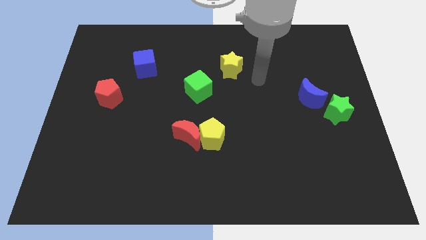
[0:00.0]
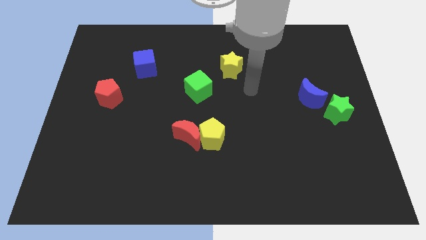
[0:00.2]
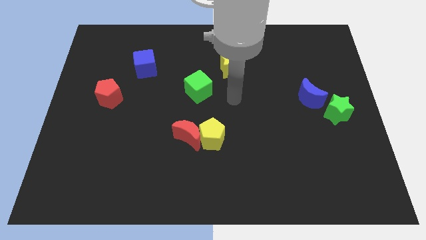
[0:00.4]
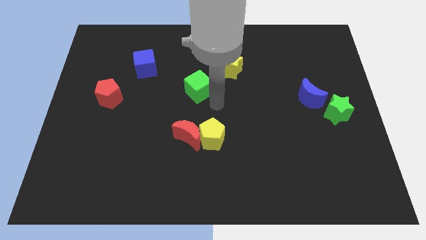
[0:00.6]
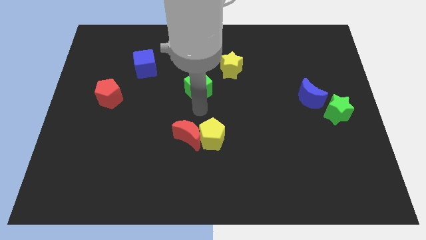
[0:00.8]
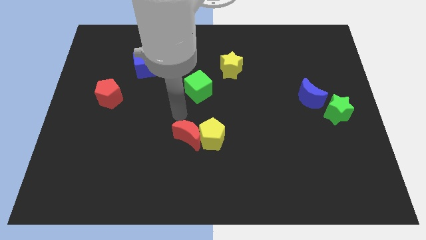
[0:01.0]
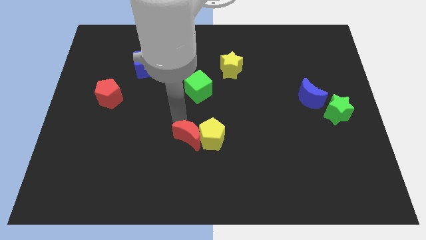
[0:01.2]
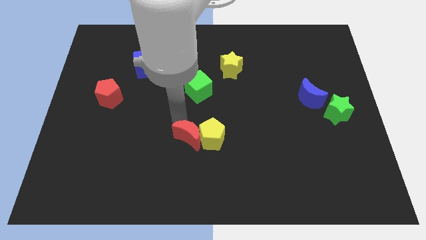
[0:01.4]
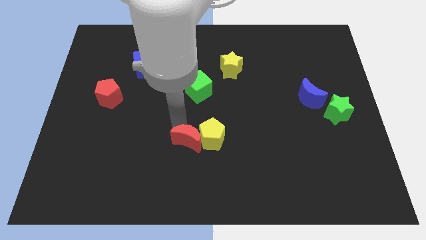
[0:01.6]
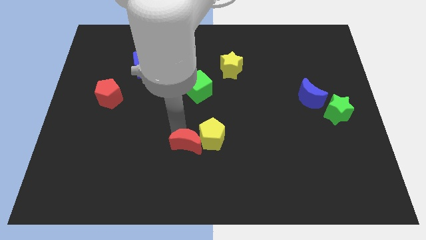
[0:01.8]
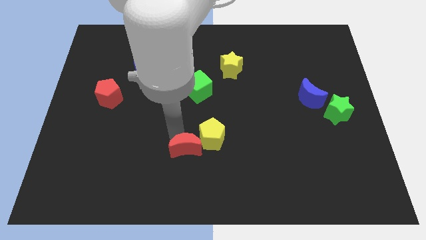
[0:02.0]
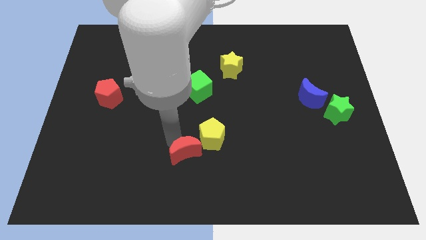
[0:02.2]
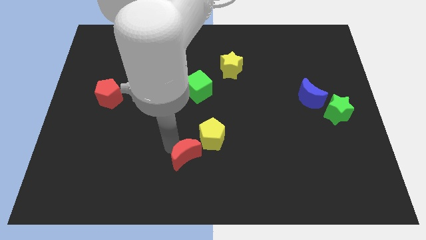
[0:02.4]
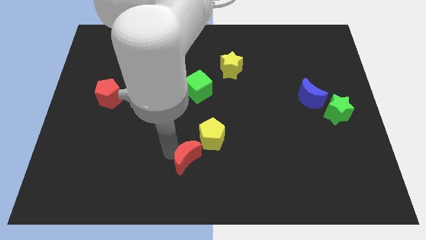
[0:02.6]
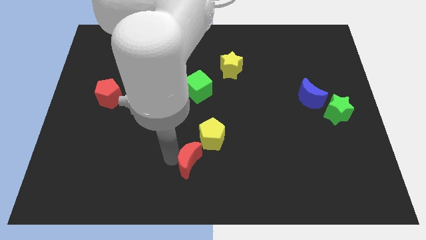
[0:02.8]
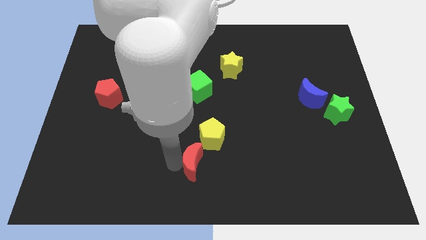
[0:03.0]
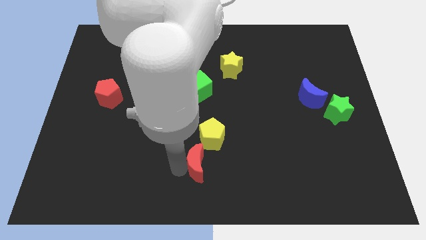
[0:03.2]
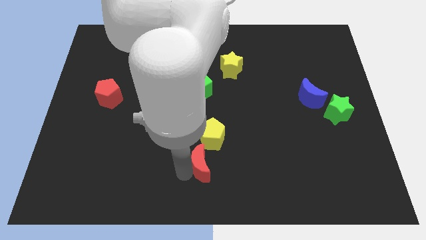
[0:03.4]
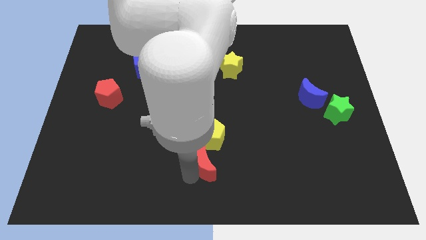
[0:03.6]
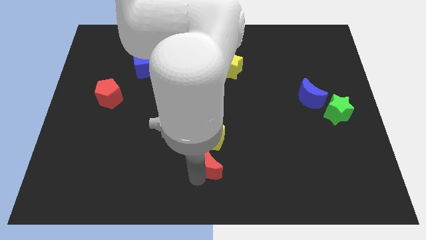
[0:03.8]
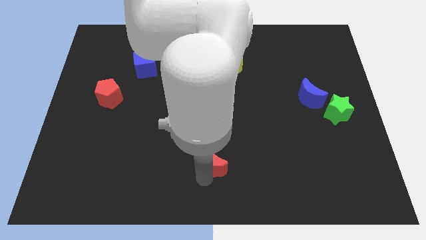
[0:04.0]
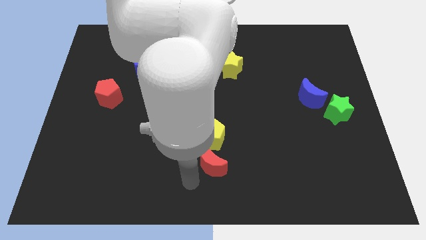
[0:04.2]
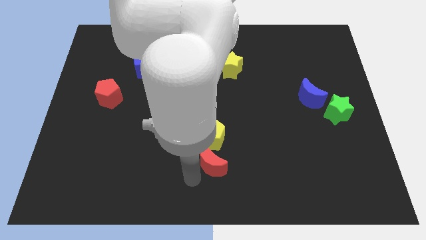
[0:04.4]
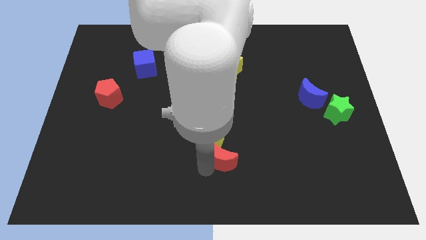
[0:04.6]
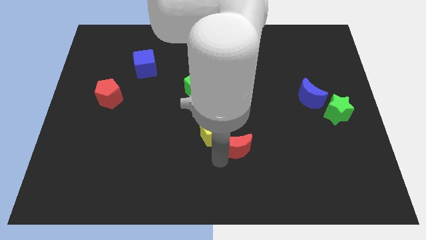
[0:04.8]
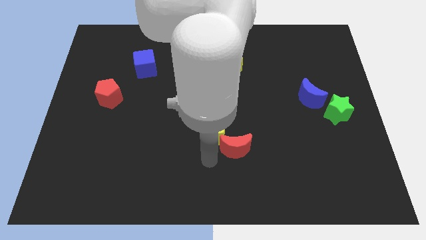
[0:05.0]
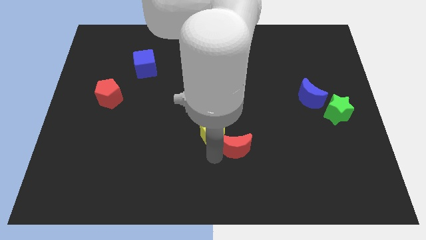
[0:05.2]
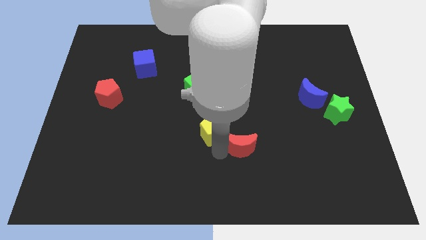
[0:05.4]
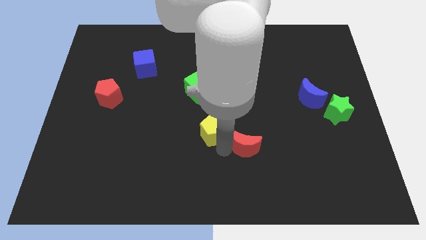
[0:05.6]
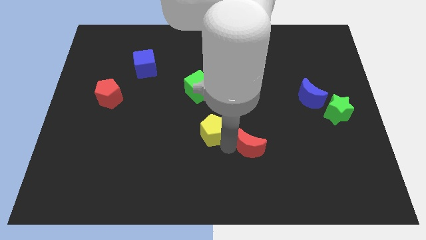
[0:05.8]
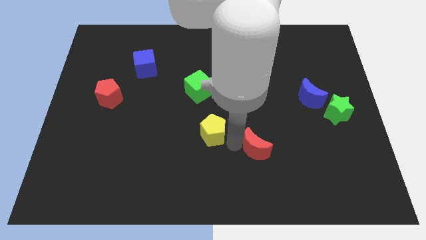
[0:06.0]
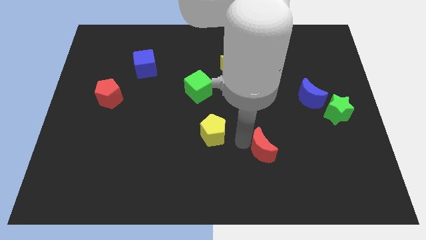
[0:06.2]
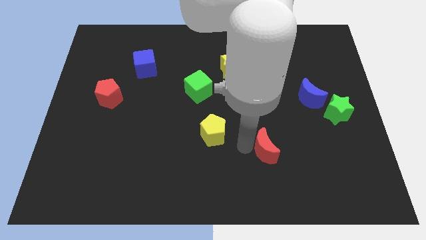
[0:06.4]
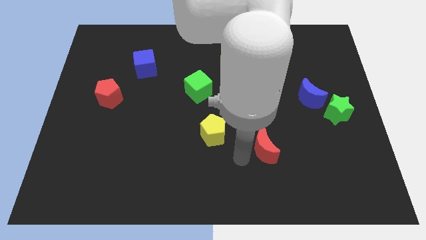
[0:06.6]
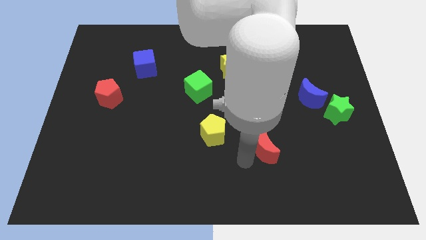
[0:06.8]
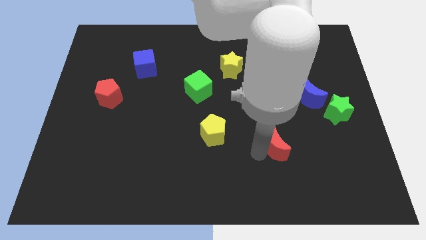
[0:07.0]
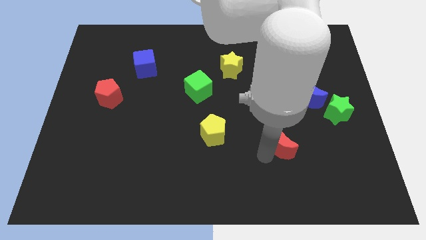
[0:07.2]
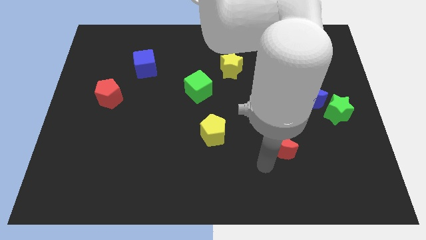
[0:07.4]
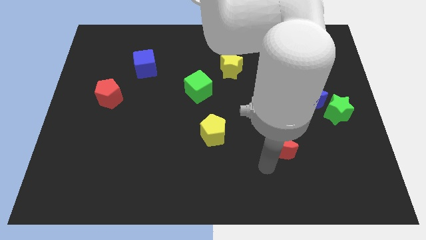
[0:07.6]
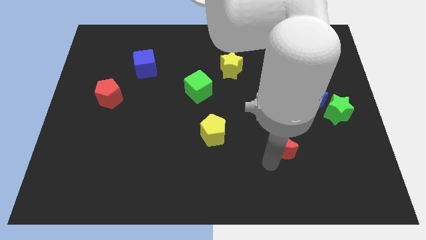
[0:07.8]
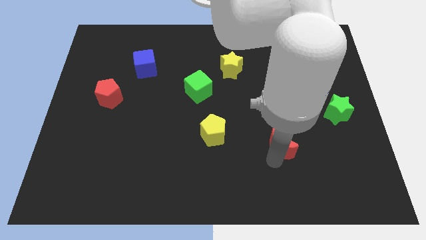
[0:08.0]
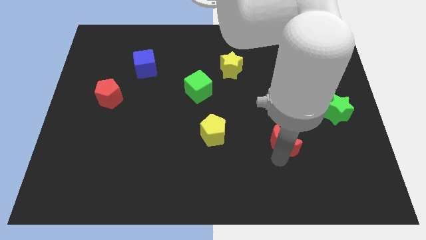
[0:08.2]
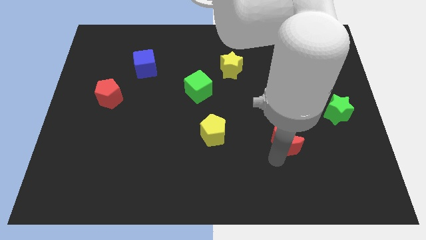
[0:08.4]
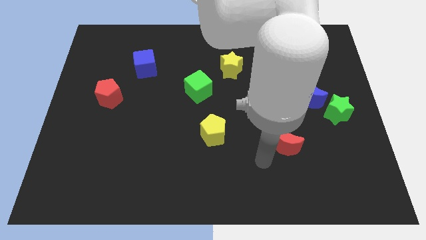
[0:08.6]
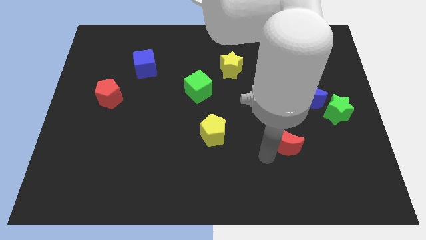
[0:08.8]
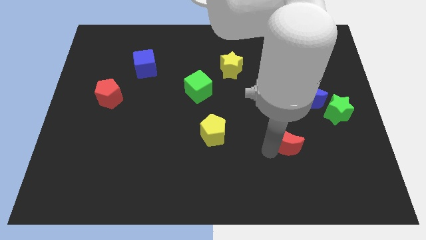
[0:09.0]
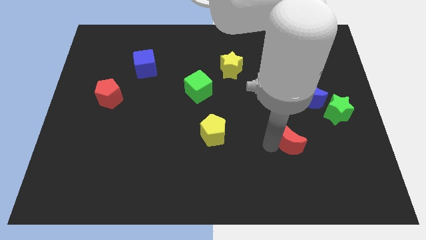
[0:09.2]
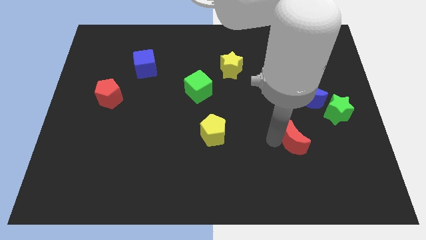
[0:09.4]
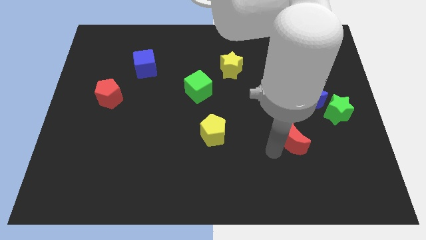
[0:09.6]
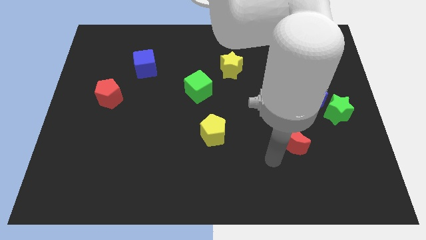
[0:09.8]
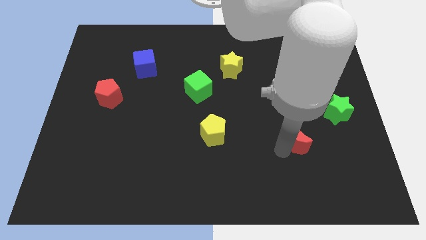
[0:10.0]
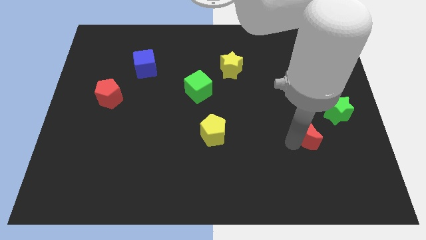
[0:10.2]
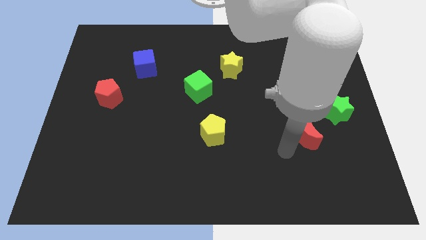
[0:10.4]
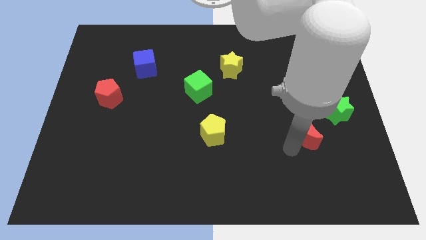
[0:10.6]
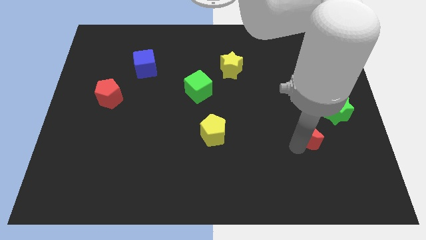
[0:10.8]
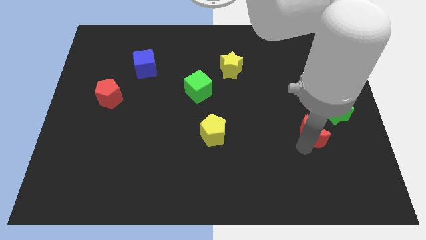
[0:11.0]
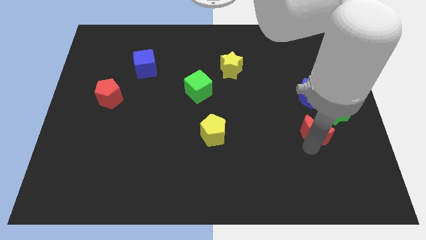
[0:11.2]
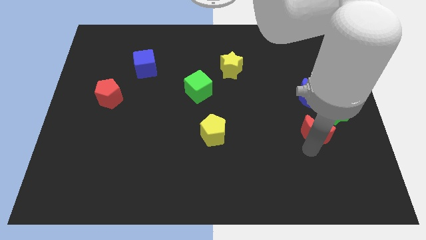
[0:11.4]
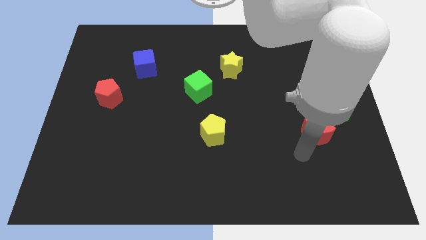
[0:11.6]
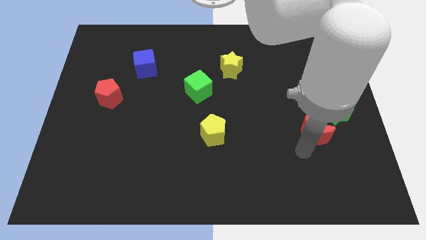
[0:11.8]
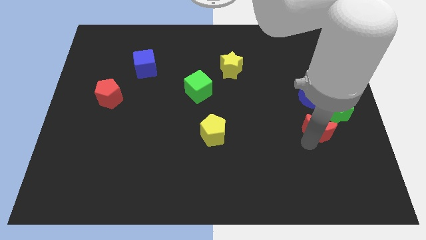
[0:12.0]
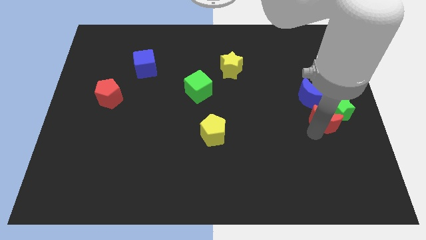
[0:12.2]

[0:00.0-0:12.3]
push the red moon next to the green star

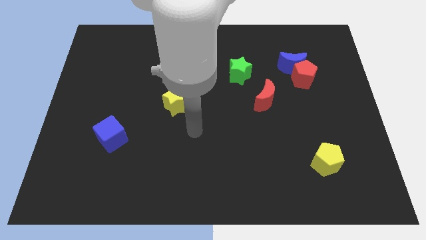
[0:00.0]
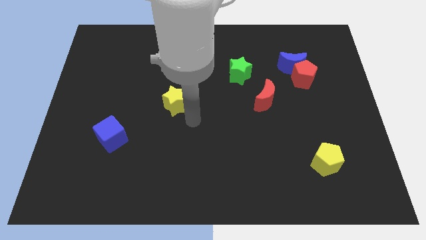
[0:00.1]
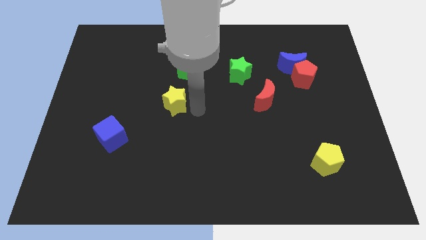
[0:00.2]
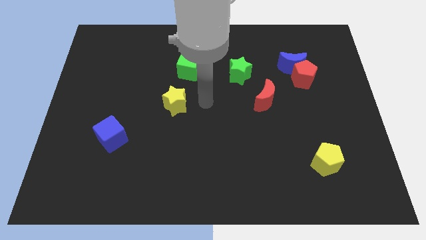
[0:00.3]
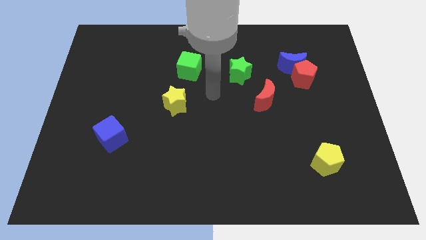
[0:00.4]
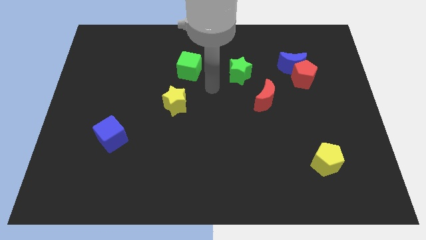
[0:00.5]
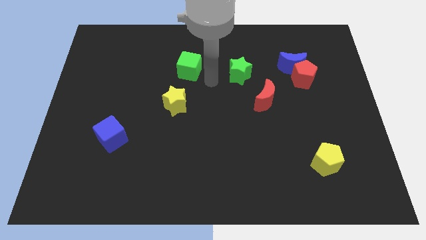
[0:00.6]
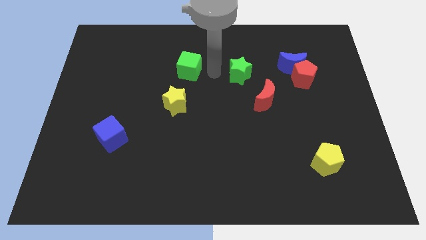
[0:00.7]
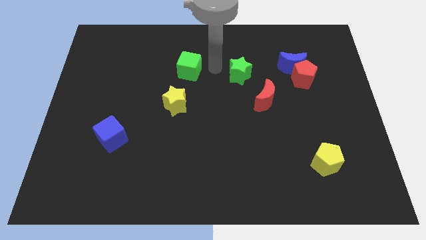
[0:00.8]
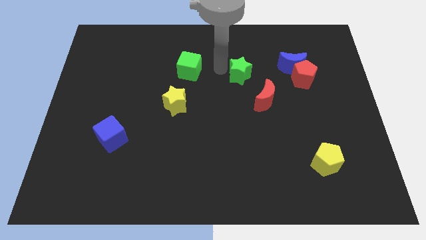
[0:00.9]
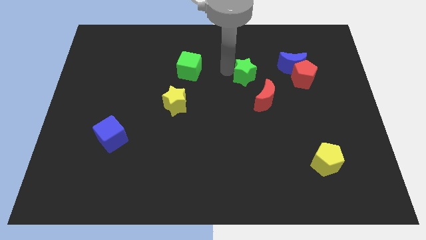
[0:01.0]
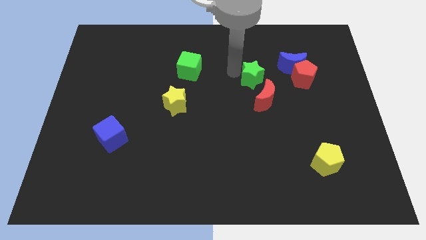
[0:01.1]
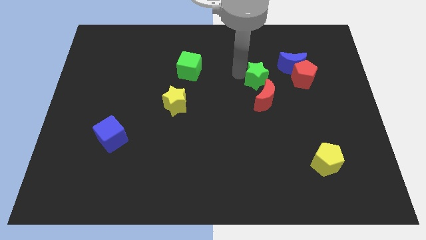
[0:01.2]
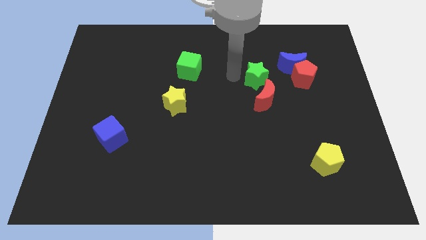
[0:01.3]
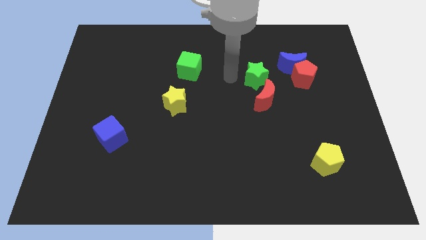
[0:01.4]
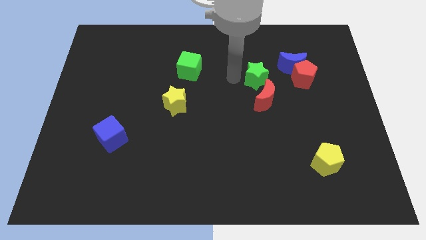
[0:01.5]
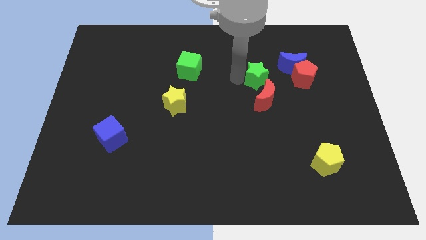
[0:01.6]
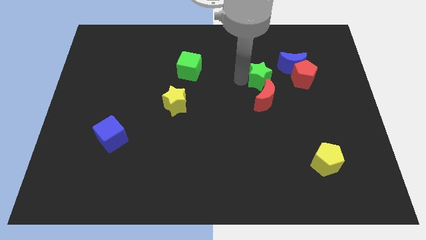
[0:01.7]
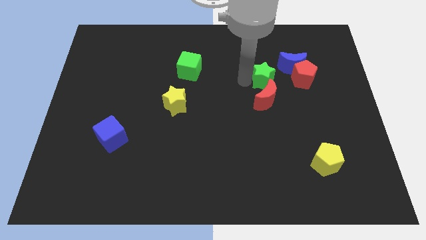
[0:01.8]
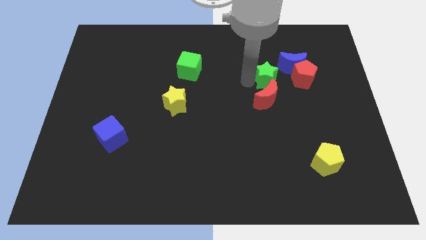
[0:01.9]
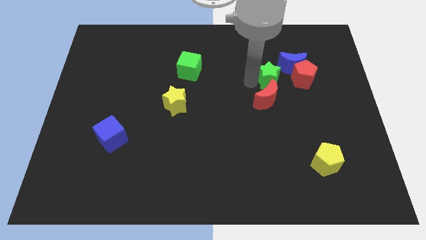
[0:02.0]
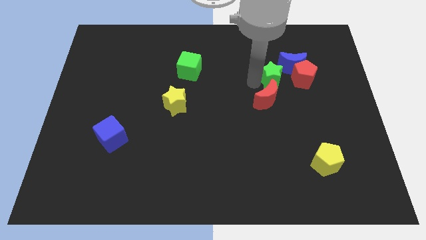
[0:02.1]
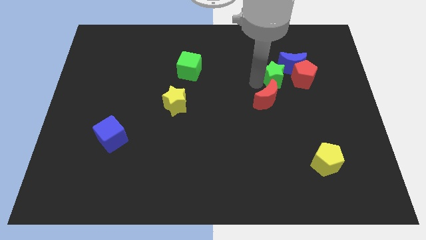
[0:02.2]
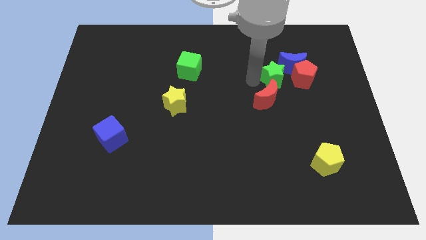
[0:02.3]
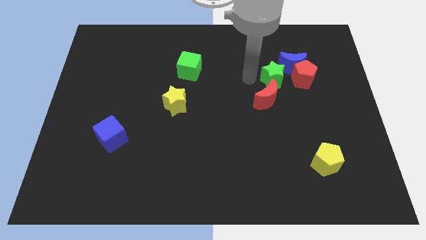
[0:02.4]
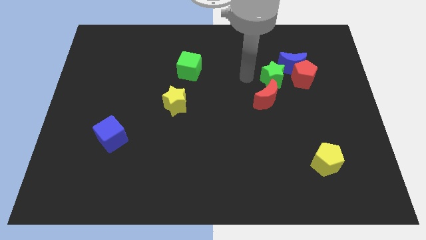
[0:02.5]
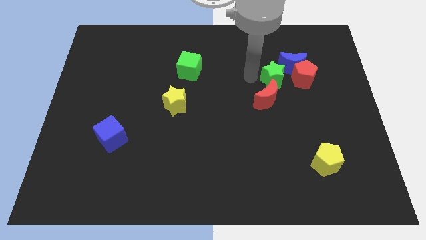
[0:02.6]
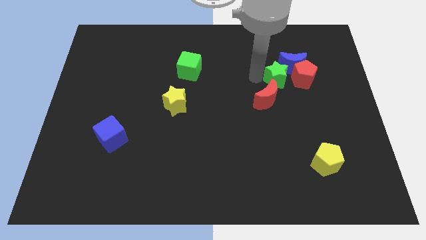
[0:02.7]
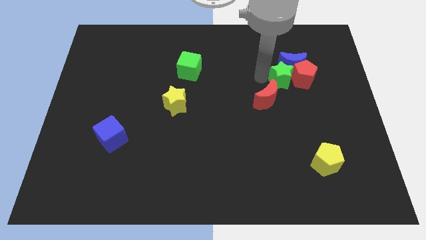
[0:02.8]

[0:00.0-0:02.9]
push the green star next to the red pentagon
